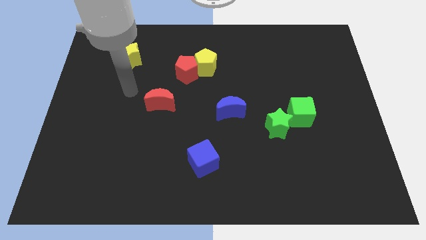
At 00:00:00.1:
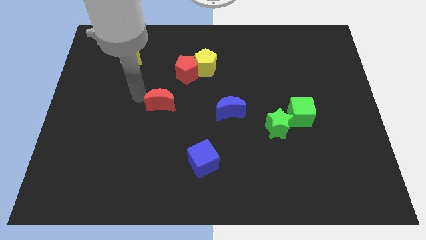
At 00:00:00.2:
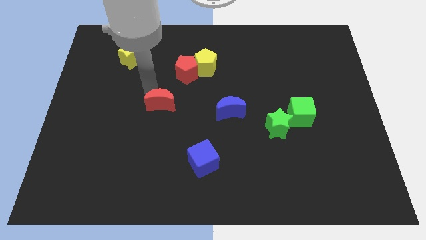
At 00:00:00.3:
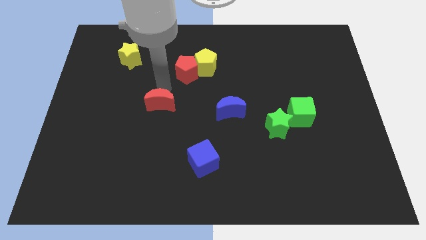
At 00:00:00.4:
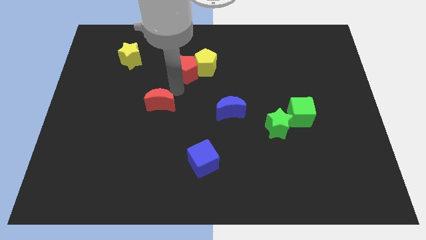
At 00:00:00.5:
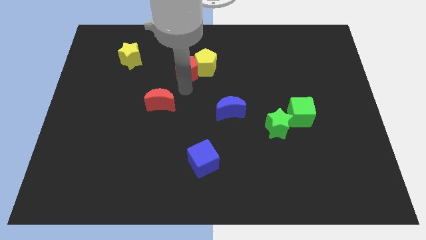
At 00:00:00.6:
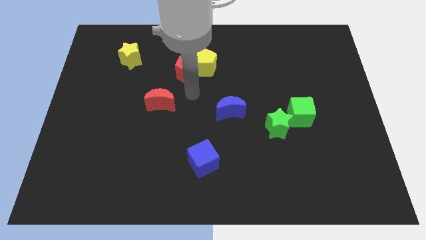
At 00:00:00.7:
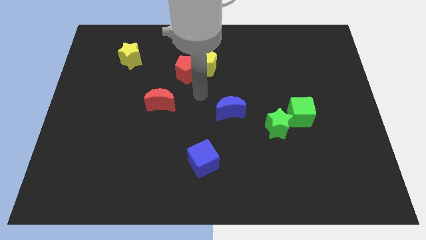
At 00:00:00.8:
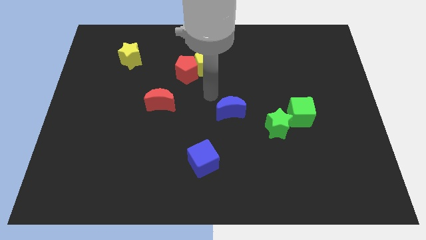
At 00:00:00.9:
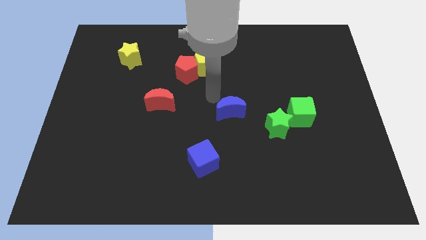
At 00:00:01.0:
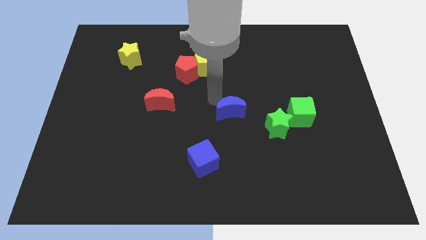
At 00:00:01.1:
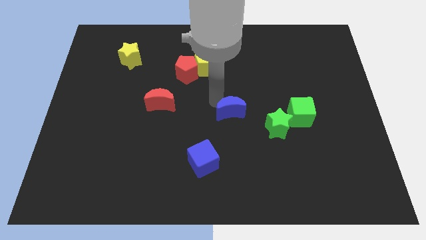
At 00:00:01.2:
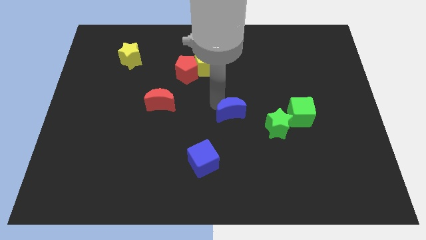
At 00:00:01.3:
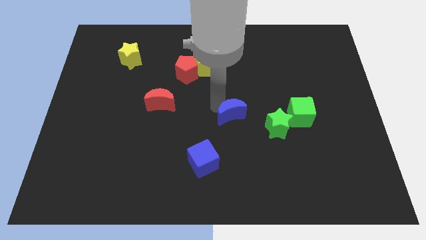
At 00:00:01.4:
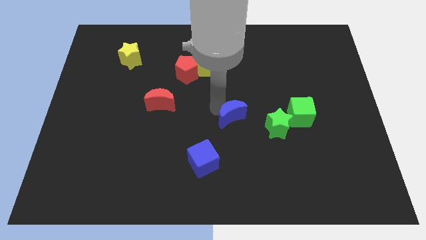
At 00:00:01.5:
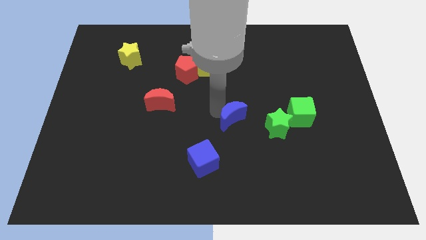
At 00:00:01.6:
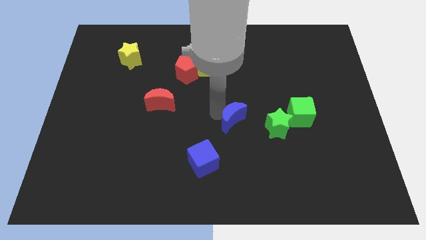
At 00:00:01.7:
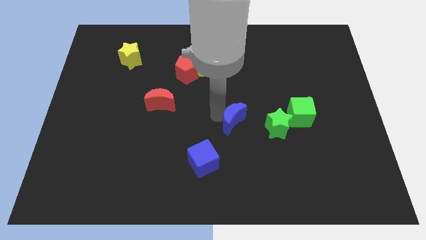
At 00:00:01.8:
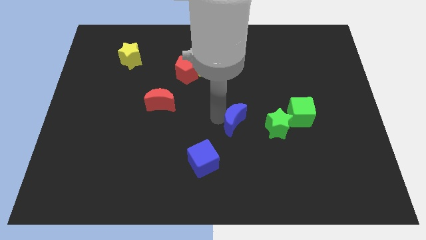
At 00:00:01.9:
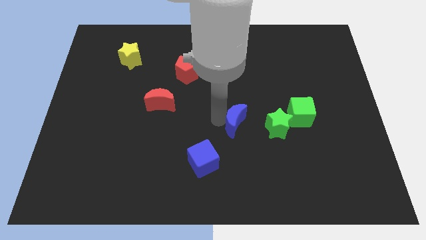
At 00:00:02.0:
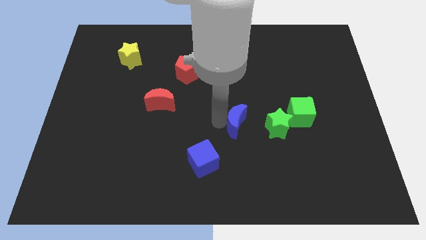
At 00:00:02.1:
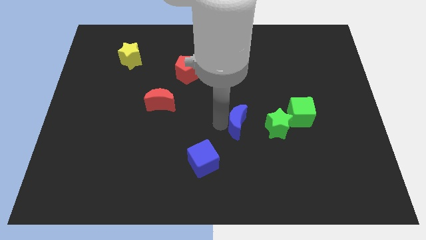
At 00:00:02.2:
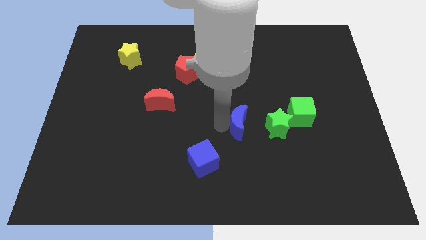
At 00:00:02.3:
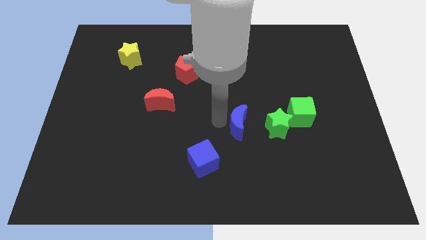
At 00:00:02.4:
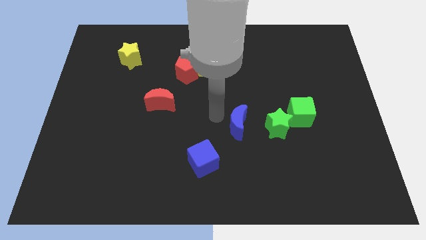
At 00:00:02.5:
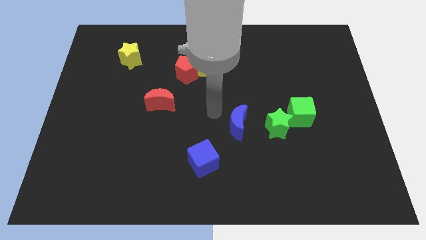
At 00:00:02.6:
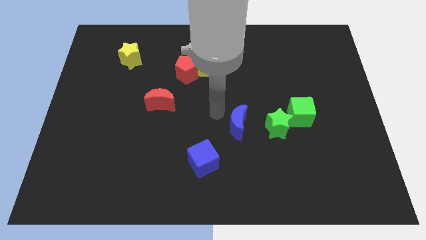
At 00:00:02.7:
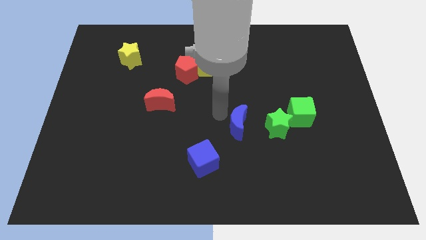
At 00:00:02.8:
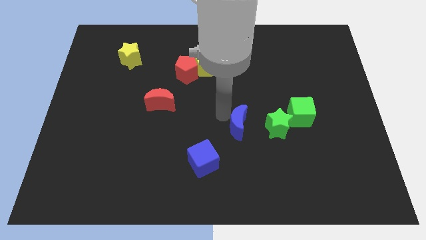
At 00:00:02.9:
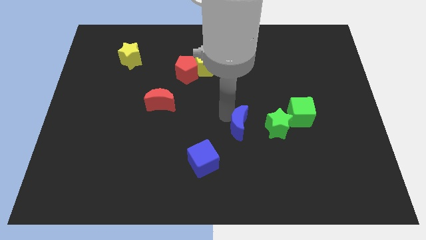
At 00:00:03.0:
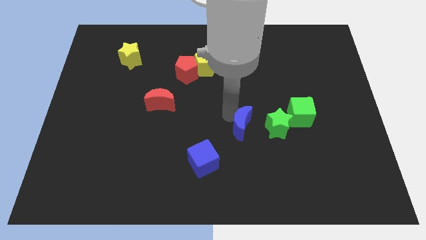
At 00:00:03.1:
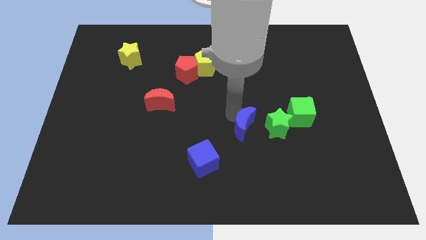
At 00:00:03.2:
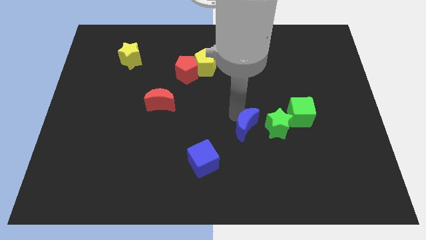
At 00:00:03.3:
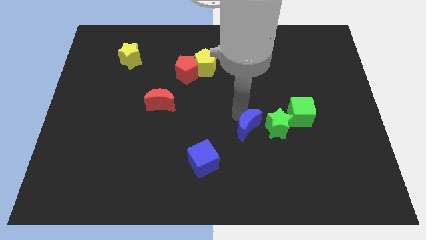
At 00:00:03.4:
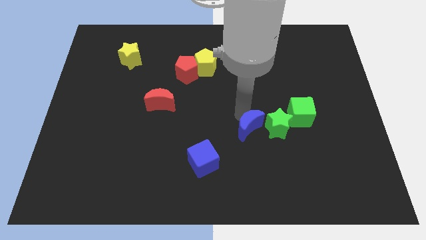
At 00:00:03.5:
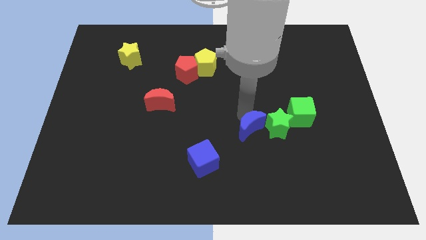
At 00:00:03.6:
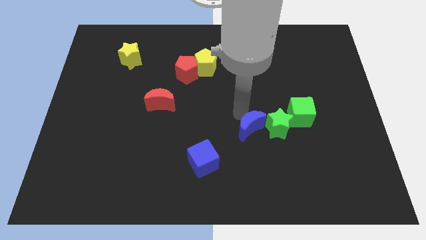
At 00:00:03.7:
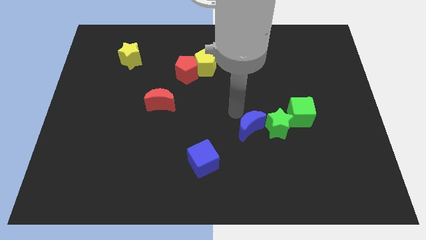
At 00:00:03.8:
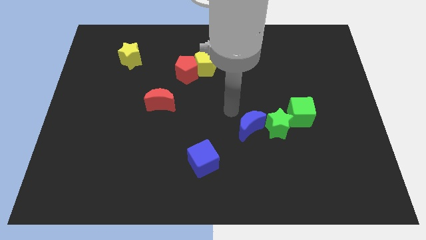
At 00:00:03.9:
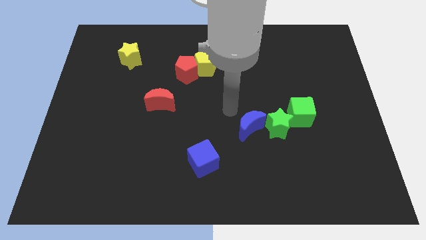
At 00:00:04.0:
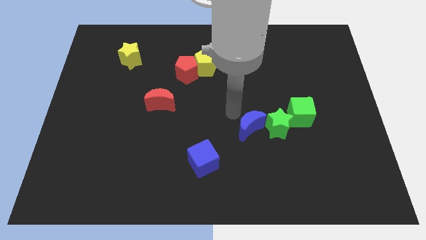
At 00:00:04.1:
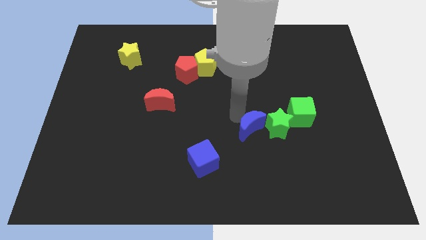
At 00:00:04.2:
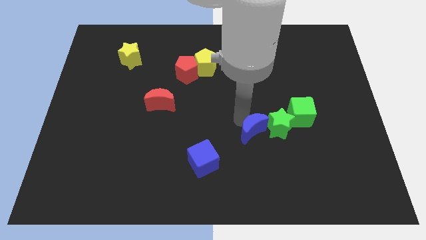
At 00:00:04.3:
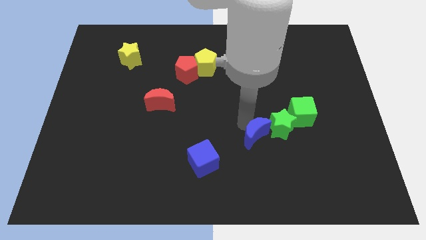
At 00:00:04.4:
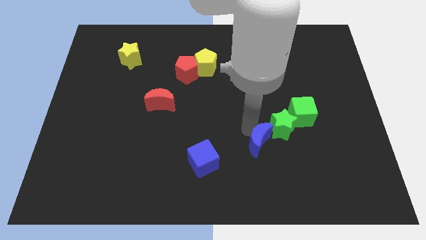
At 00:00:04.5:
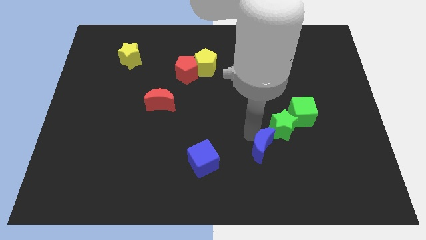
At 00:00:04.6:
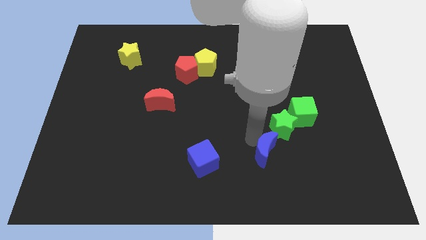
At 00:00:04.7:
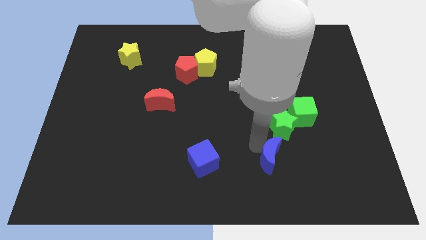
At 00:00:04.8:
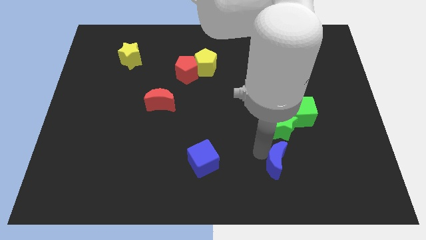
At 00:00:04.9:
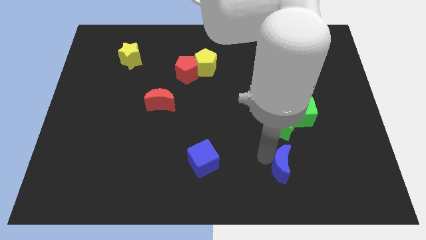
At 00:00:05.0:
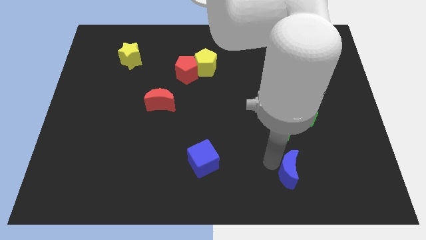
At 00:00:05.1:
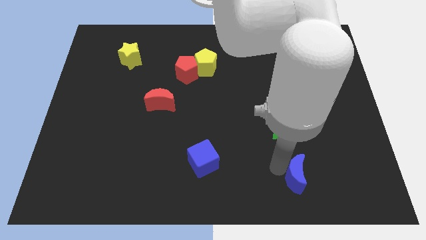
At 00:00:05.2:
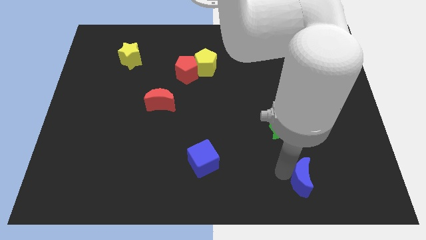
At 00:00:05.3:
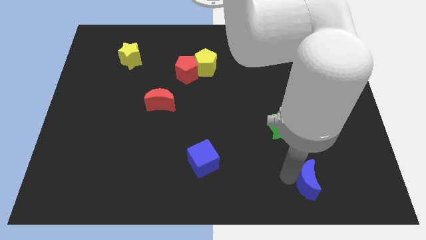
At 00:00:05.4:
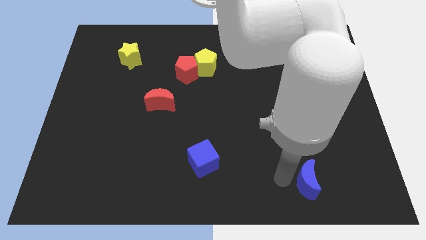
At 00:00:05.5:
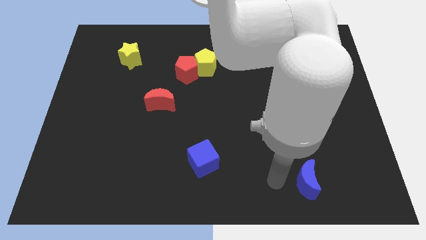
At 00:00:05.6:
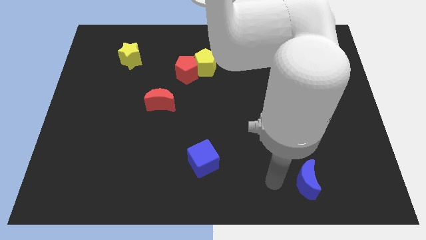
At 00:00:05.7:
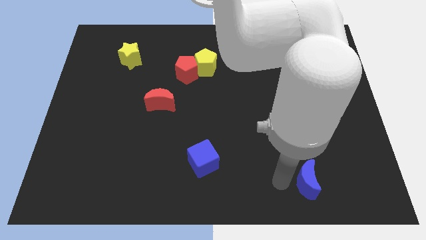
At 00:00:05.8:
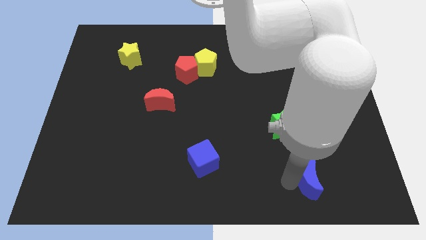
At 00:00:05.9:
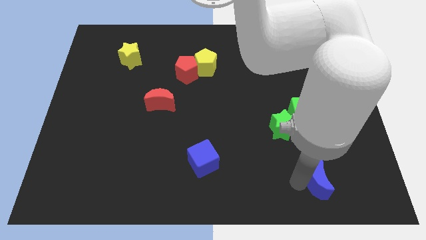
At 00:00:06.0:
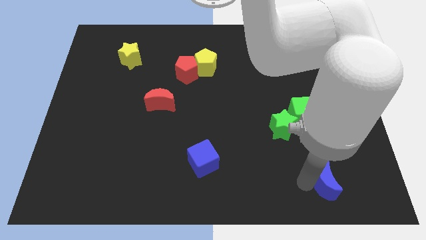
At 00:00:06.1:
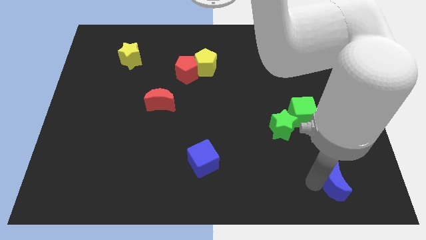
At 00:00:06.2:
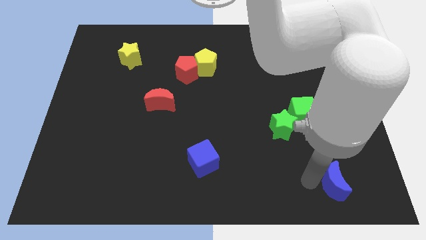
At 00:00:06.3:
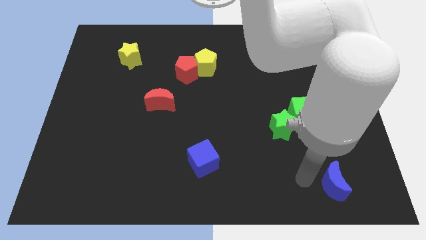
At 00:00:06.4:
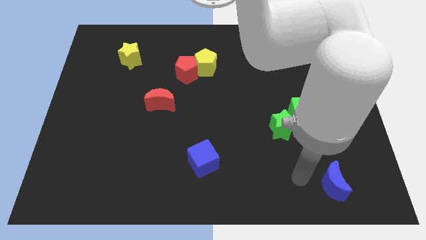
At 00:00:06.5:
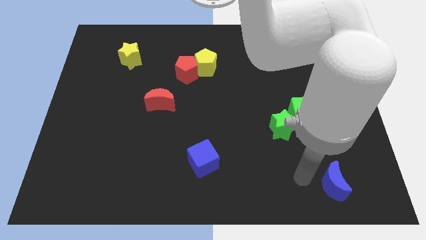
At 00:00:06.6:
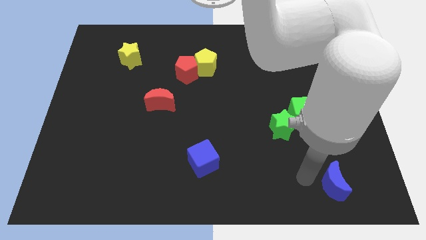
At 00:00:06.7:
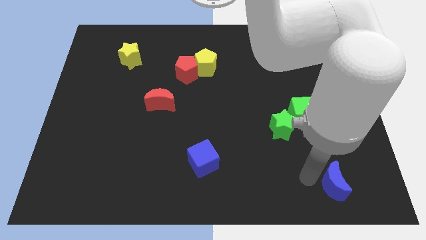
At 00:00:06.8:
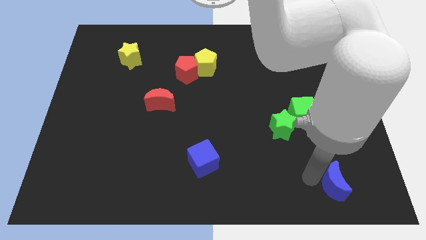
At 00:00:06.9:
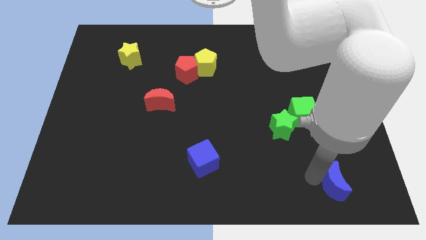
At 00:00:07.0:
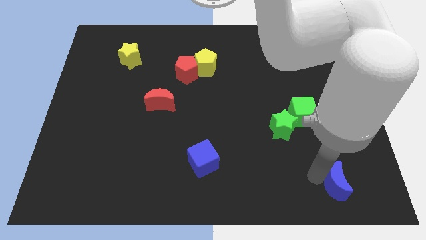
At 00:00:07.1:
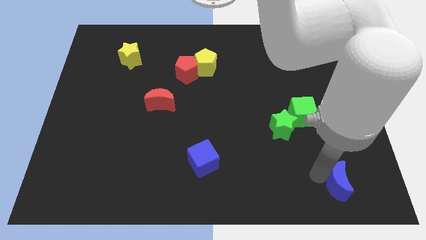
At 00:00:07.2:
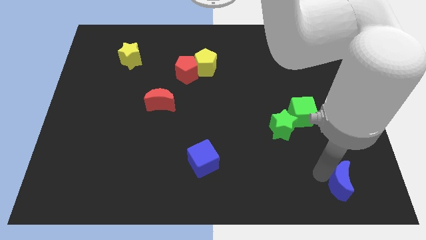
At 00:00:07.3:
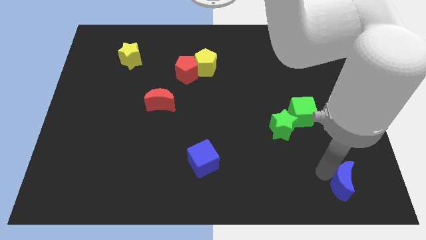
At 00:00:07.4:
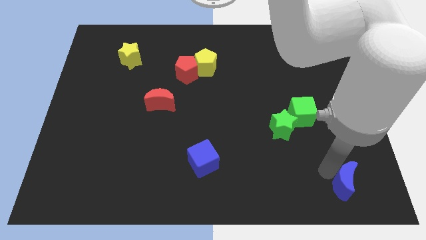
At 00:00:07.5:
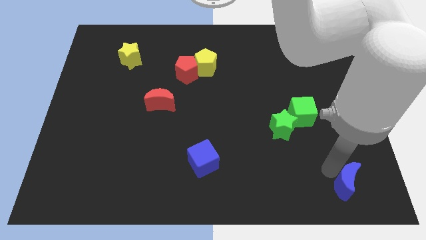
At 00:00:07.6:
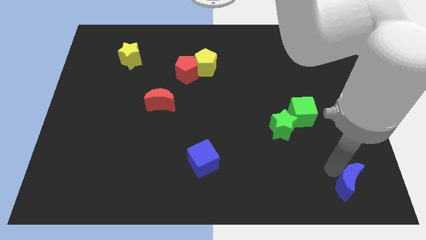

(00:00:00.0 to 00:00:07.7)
push the blue moon to the bottom right
